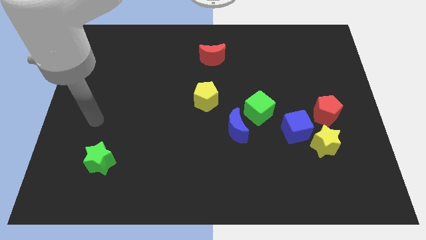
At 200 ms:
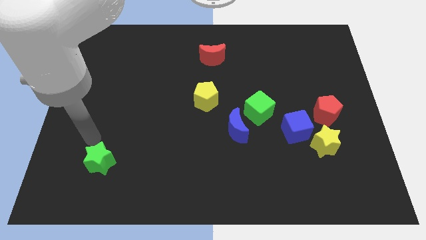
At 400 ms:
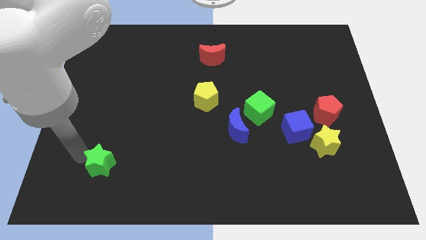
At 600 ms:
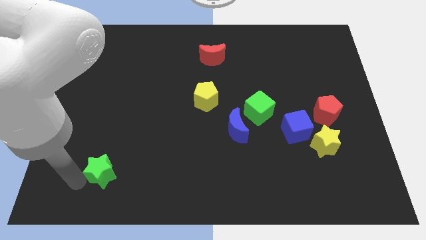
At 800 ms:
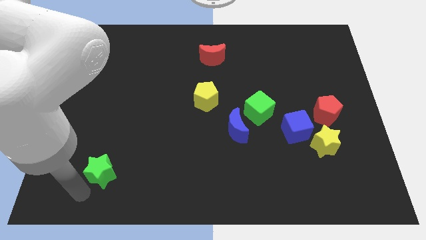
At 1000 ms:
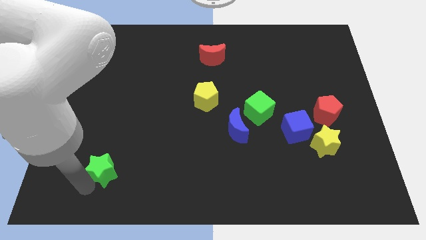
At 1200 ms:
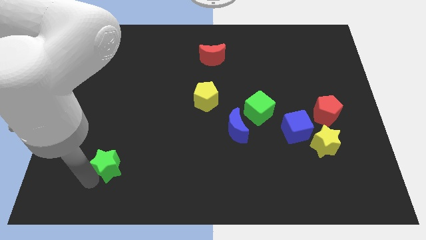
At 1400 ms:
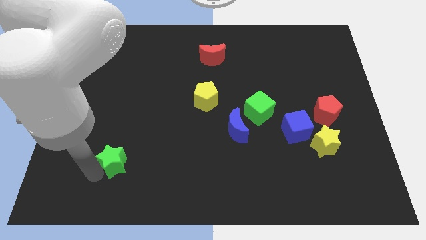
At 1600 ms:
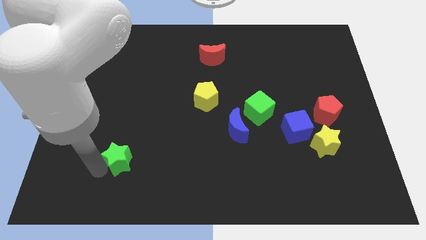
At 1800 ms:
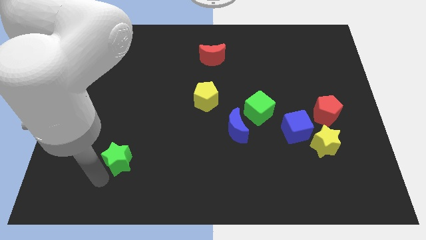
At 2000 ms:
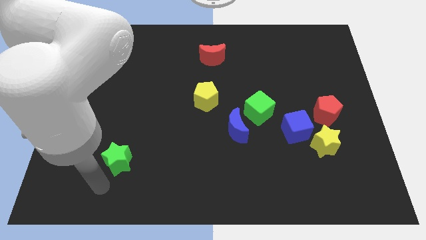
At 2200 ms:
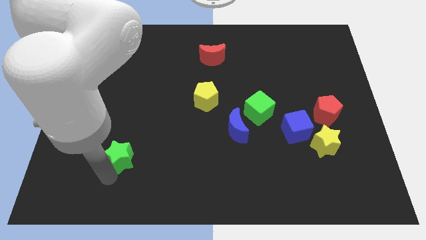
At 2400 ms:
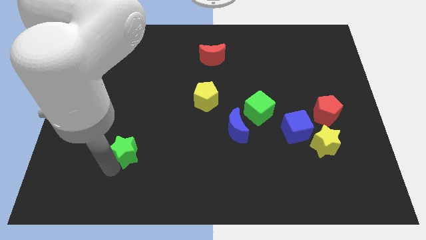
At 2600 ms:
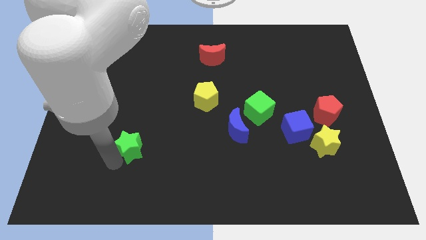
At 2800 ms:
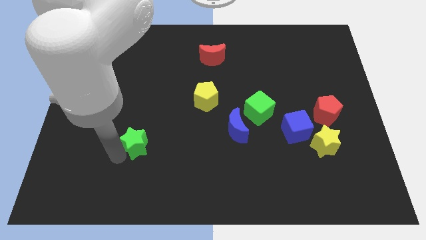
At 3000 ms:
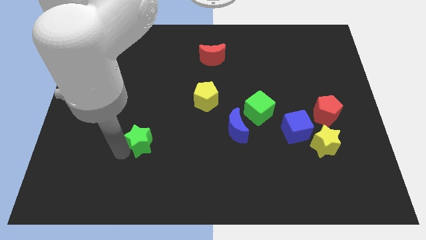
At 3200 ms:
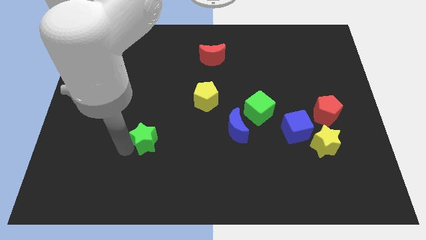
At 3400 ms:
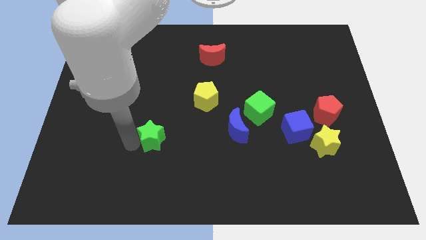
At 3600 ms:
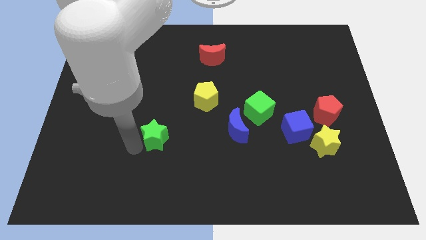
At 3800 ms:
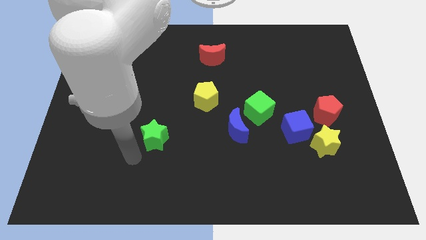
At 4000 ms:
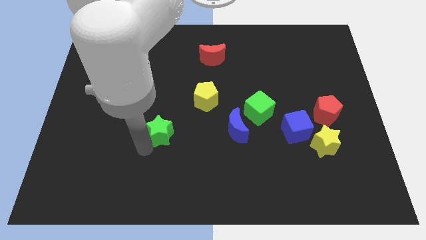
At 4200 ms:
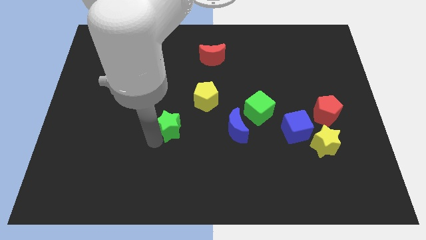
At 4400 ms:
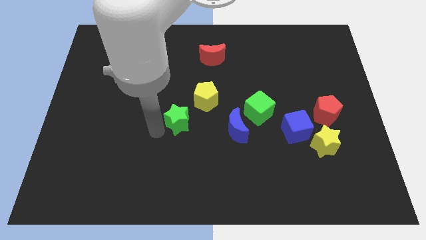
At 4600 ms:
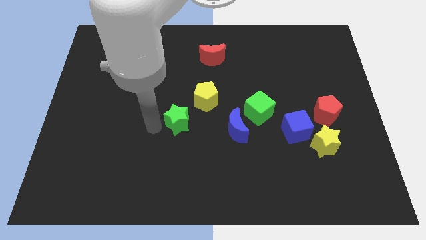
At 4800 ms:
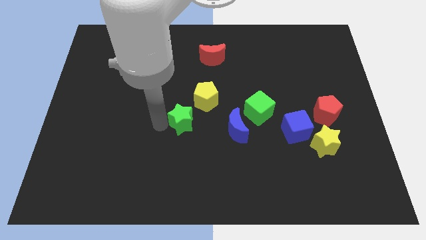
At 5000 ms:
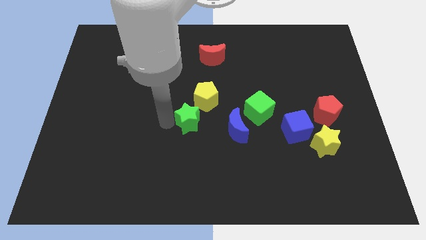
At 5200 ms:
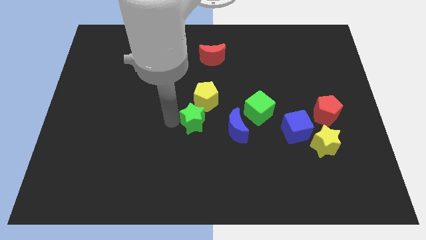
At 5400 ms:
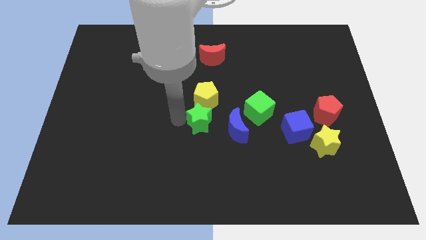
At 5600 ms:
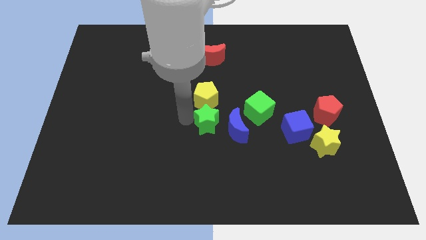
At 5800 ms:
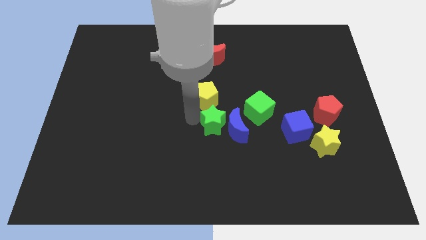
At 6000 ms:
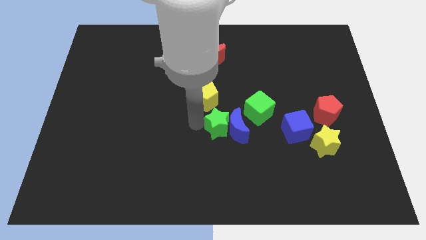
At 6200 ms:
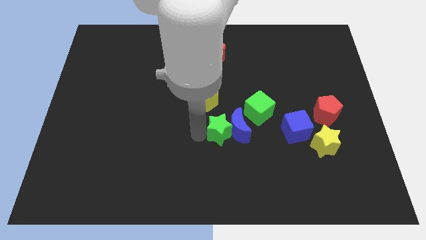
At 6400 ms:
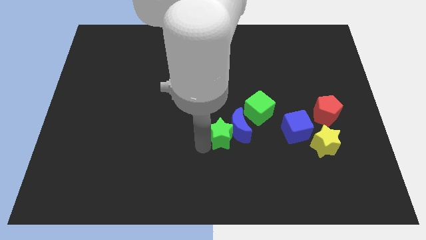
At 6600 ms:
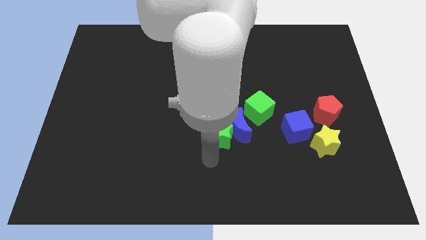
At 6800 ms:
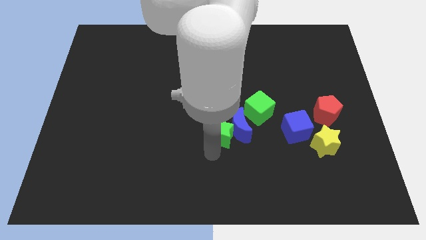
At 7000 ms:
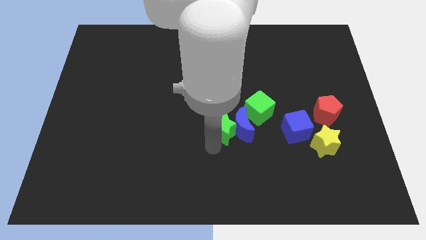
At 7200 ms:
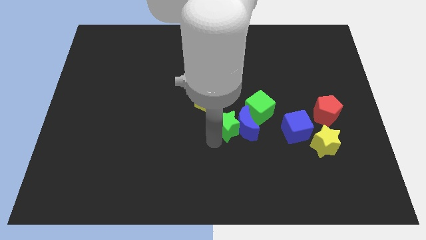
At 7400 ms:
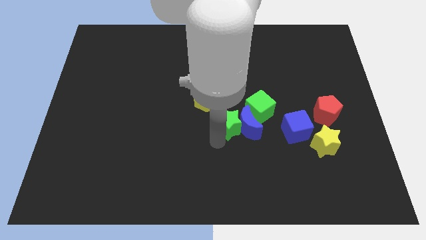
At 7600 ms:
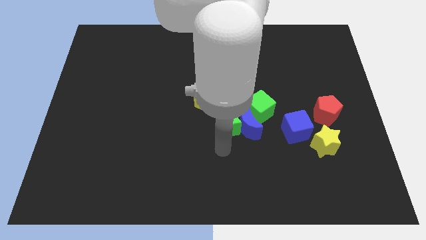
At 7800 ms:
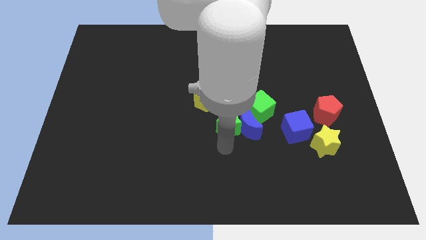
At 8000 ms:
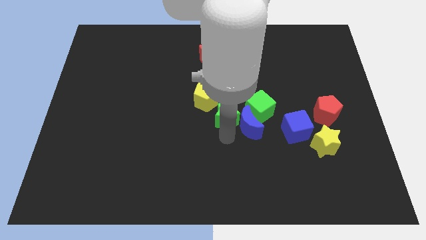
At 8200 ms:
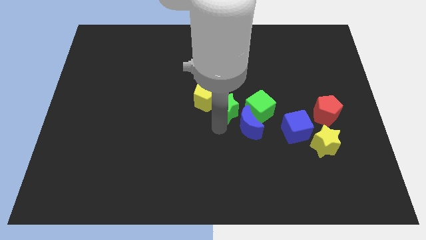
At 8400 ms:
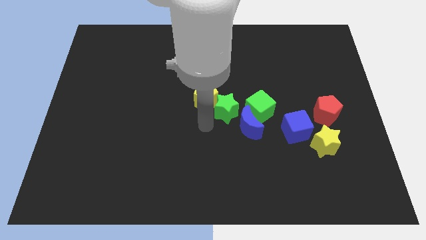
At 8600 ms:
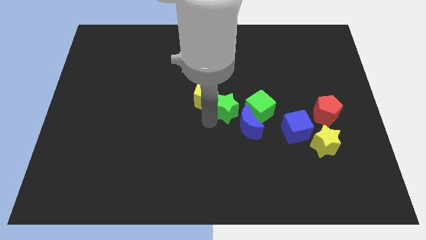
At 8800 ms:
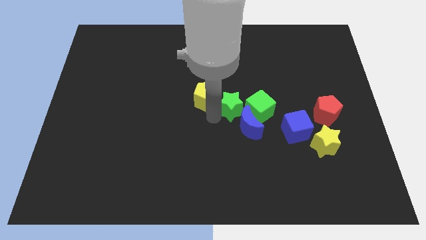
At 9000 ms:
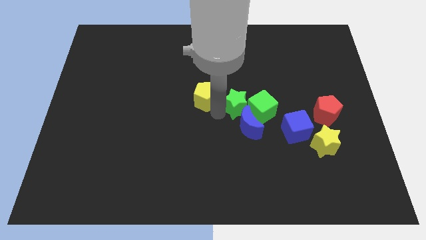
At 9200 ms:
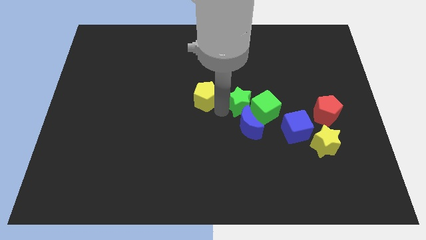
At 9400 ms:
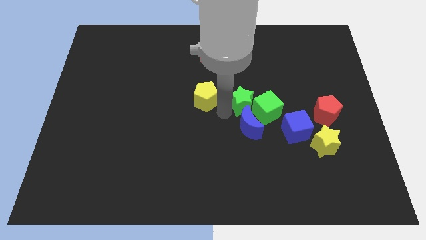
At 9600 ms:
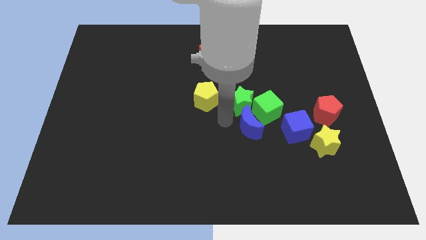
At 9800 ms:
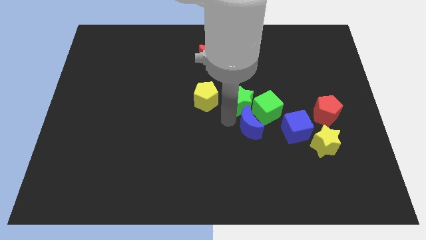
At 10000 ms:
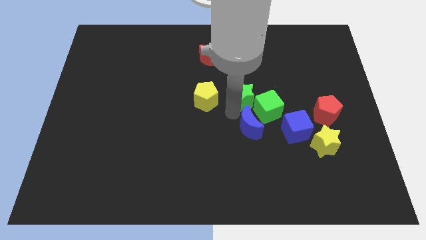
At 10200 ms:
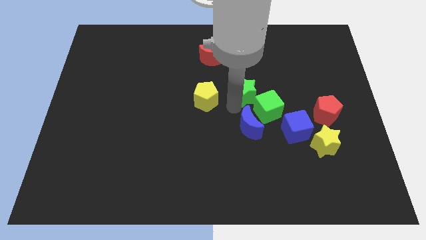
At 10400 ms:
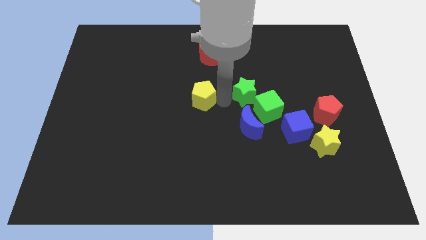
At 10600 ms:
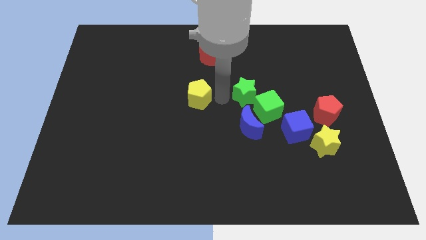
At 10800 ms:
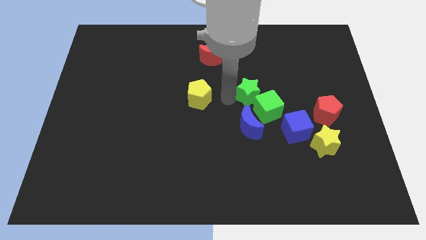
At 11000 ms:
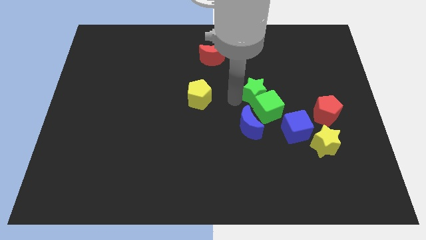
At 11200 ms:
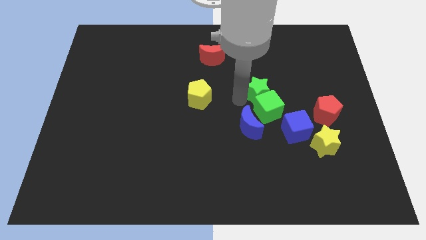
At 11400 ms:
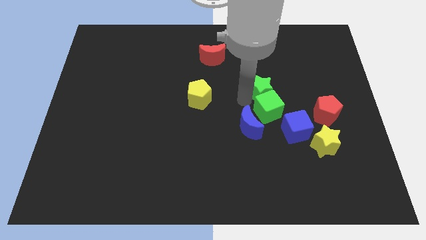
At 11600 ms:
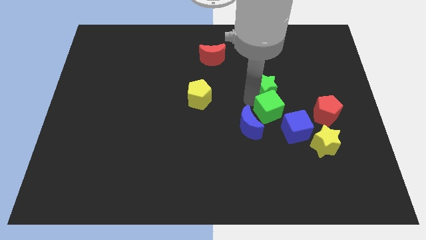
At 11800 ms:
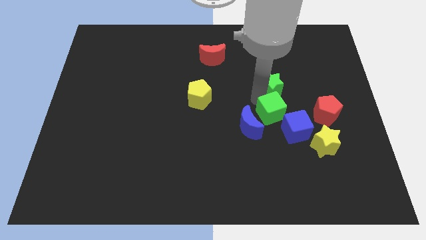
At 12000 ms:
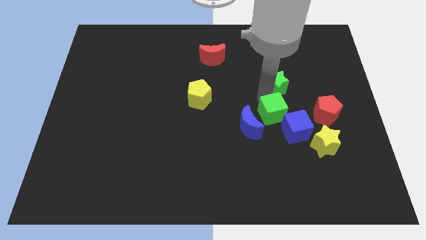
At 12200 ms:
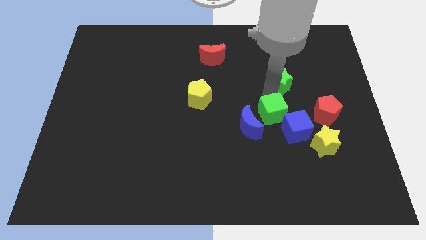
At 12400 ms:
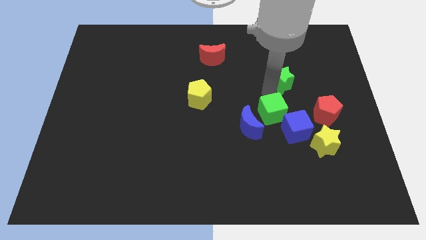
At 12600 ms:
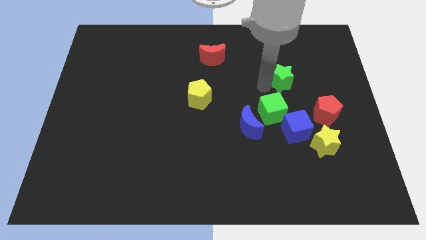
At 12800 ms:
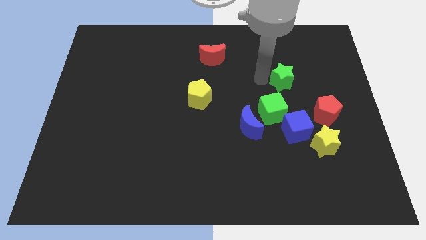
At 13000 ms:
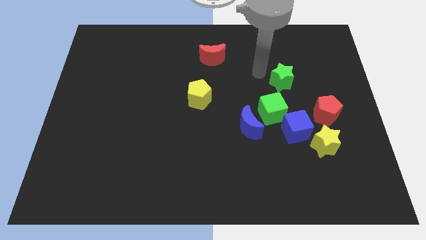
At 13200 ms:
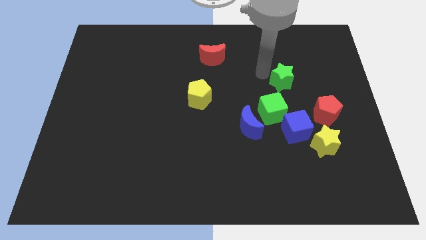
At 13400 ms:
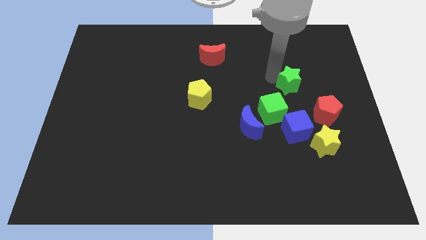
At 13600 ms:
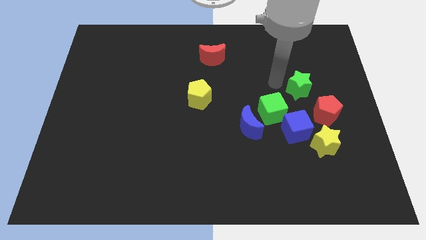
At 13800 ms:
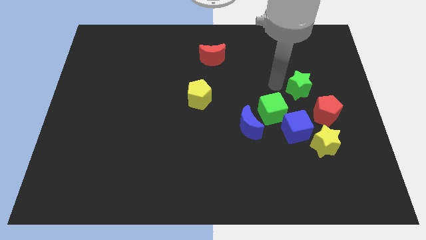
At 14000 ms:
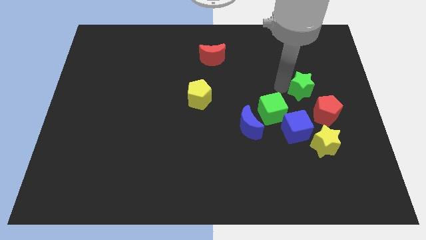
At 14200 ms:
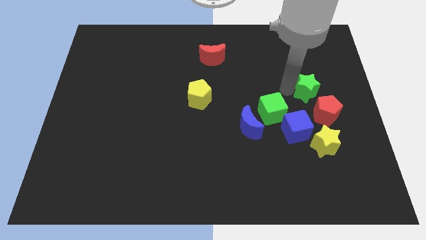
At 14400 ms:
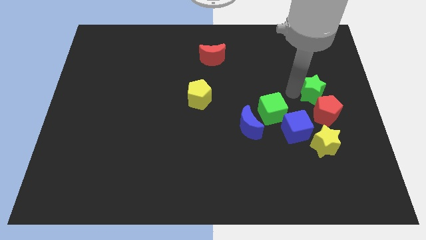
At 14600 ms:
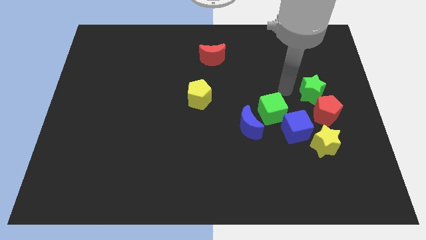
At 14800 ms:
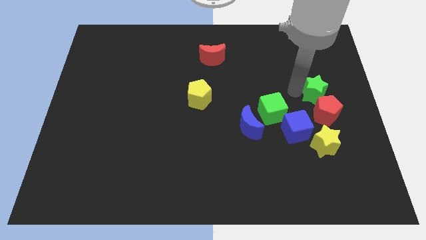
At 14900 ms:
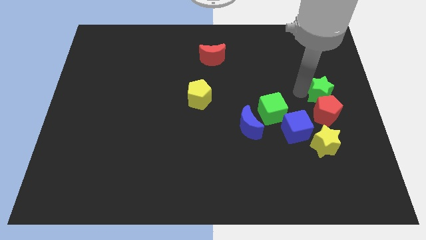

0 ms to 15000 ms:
push the green star to the center right
